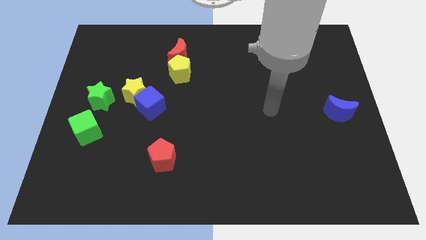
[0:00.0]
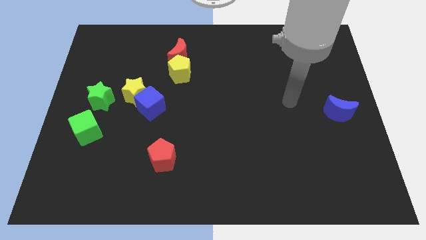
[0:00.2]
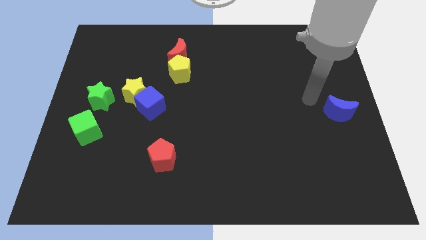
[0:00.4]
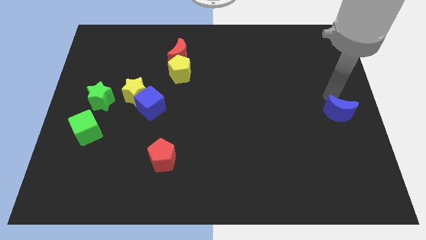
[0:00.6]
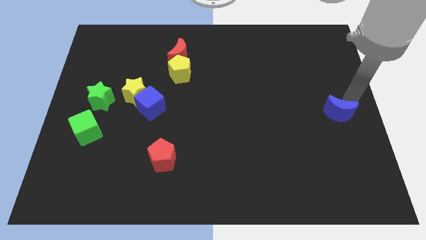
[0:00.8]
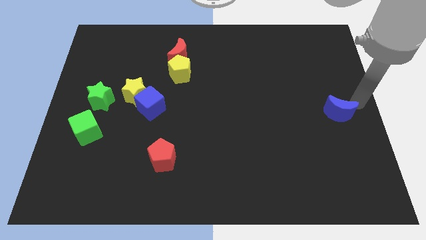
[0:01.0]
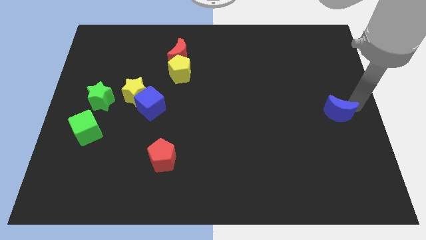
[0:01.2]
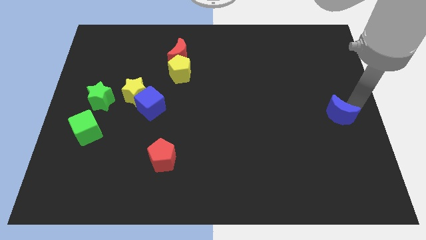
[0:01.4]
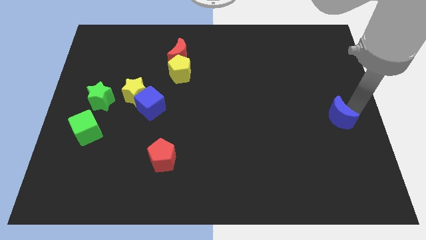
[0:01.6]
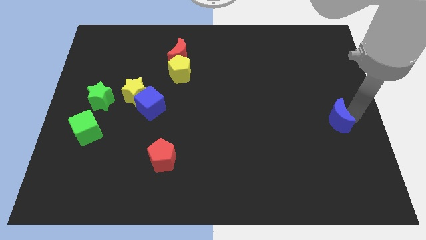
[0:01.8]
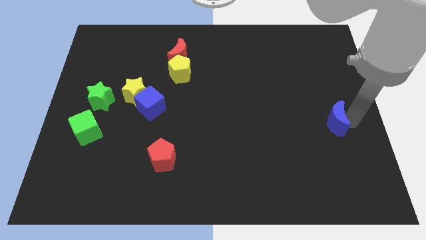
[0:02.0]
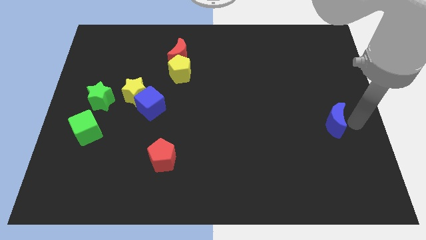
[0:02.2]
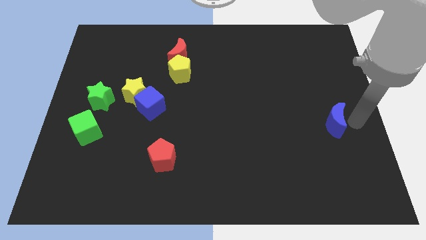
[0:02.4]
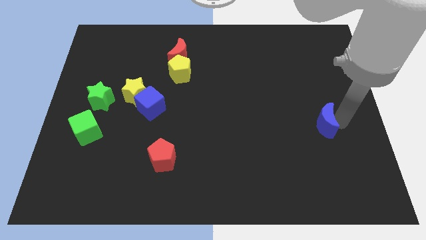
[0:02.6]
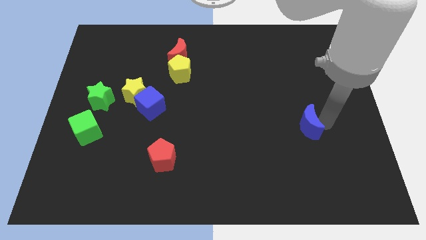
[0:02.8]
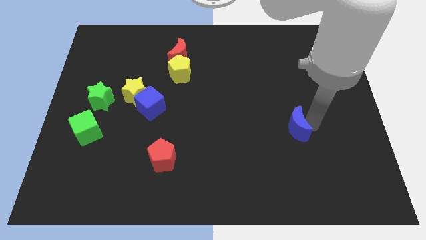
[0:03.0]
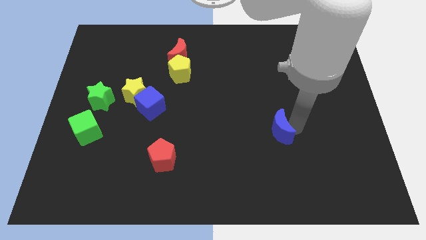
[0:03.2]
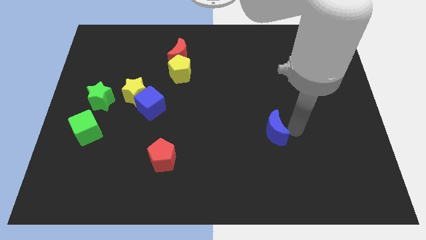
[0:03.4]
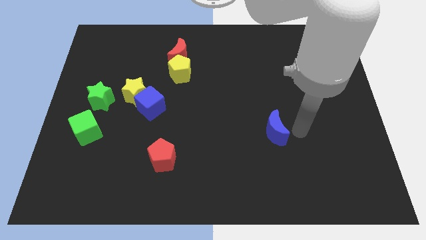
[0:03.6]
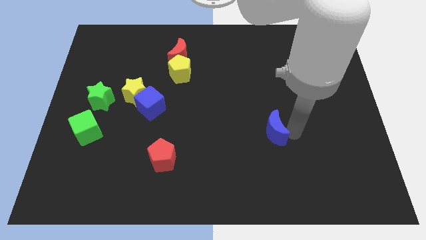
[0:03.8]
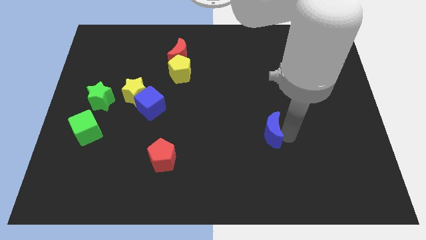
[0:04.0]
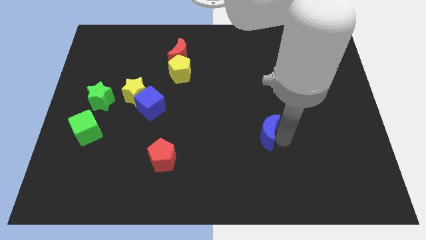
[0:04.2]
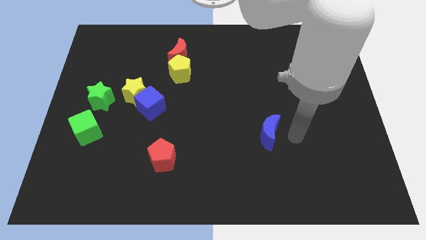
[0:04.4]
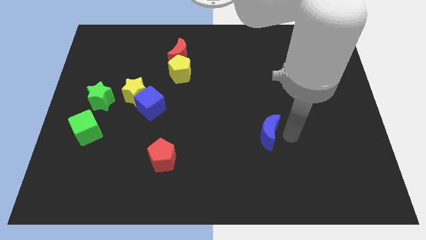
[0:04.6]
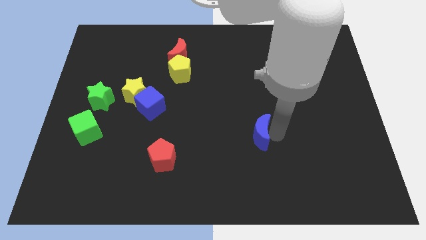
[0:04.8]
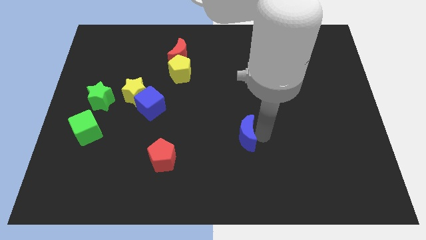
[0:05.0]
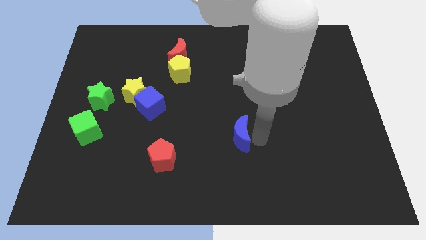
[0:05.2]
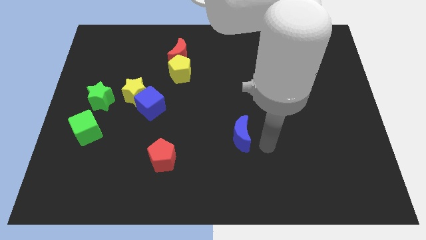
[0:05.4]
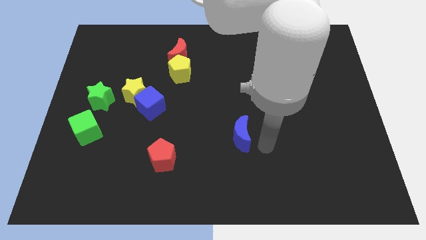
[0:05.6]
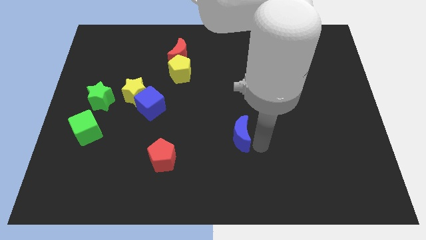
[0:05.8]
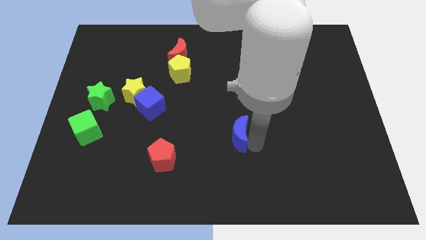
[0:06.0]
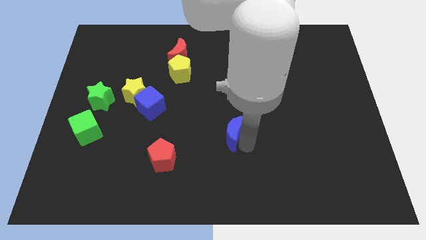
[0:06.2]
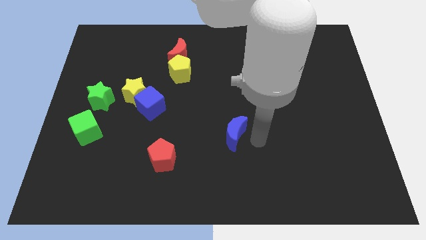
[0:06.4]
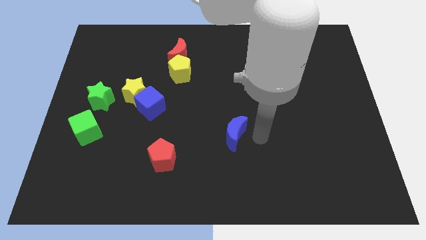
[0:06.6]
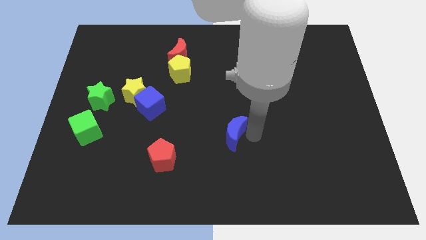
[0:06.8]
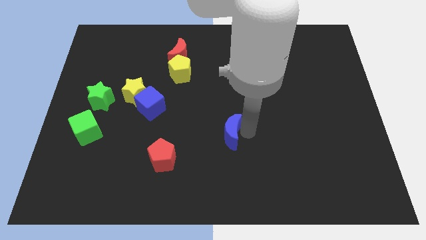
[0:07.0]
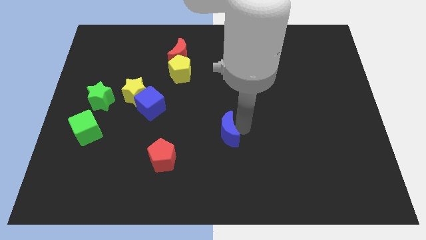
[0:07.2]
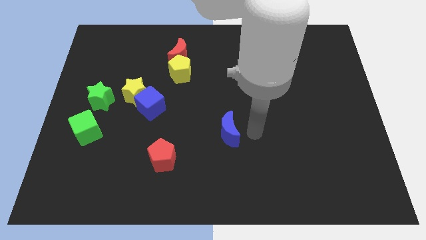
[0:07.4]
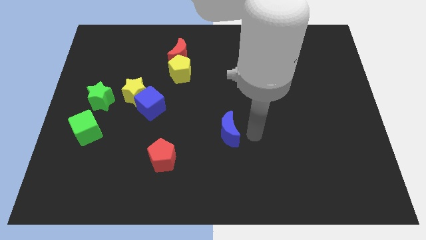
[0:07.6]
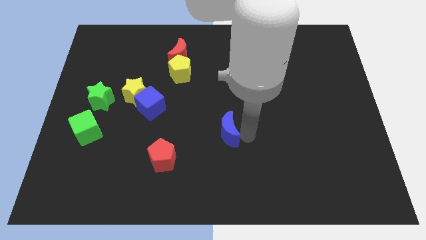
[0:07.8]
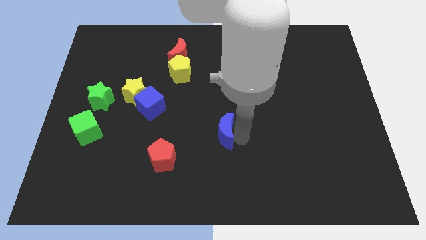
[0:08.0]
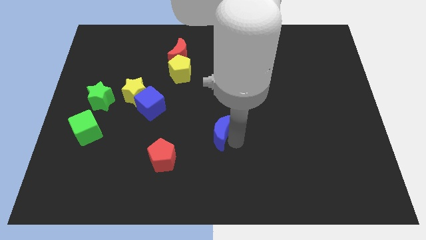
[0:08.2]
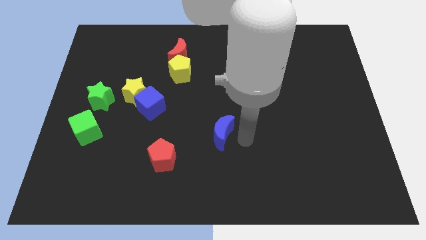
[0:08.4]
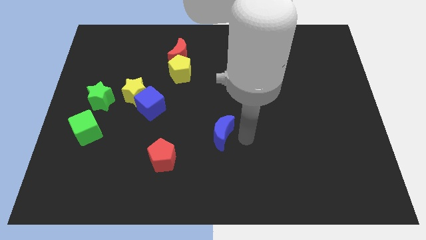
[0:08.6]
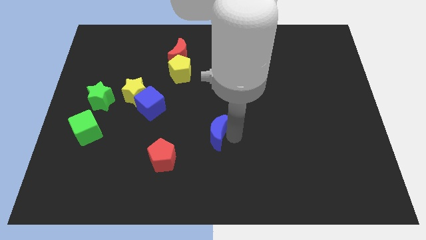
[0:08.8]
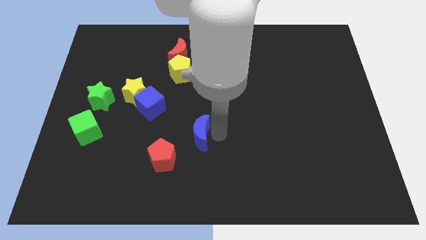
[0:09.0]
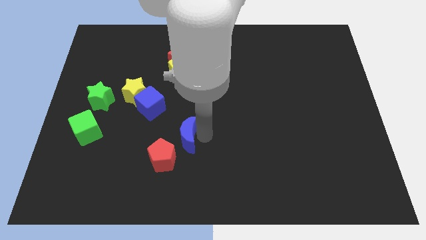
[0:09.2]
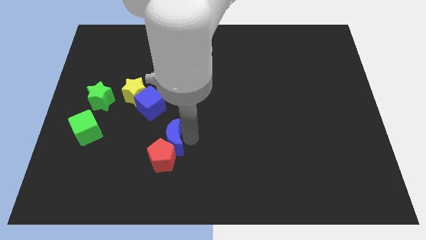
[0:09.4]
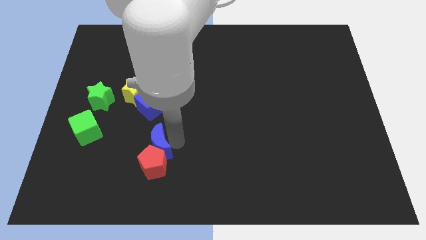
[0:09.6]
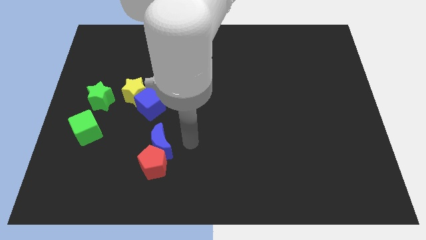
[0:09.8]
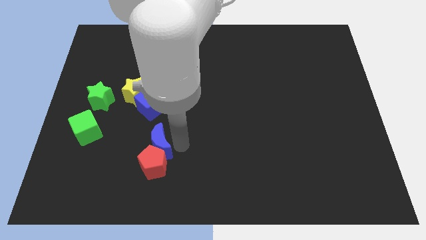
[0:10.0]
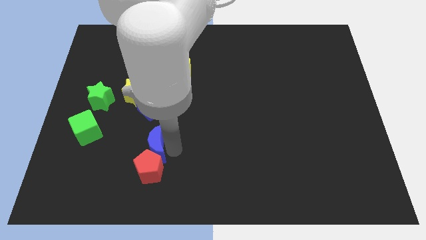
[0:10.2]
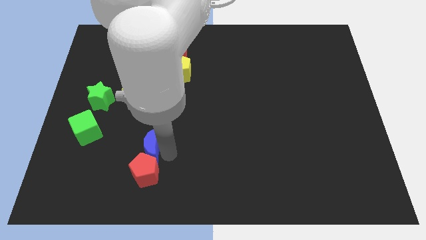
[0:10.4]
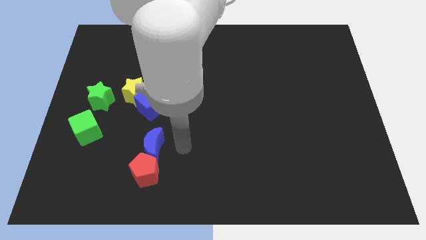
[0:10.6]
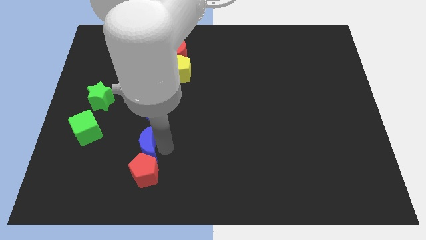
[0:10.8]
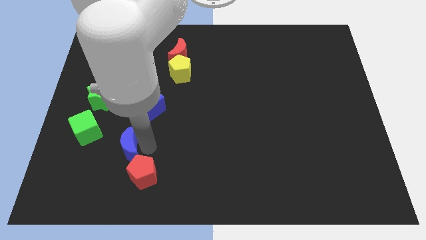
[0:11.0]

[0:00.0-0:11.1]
slide the blue moon to the bottom right of the green cube

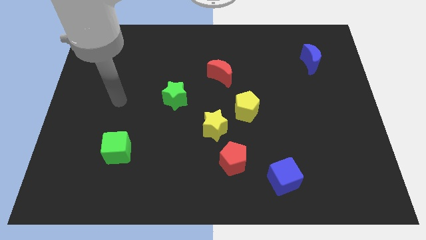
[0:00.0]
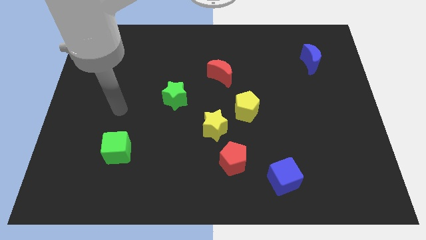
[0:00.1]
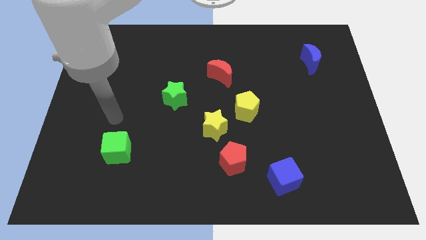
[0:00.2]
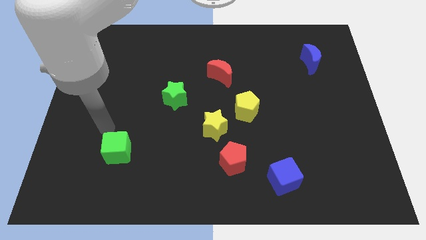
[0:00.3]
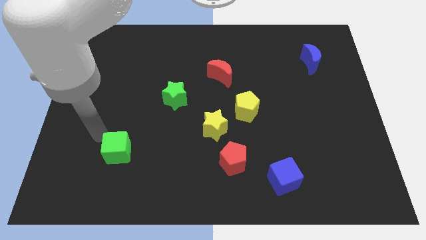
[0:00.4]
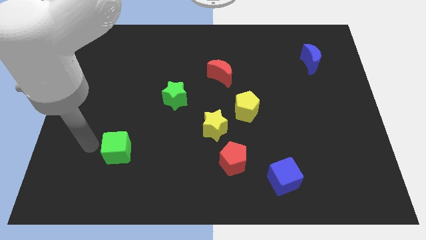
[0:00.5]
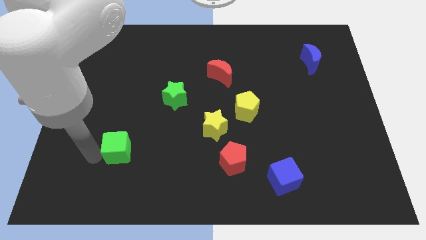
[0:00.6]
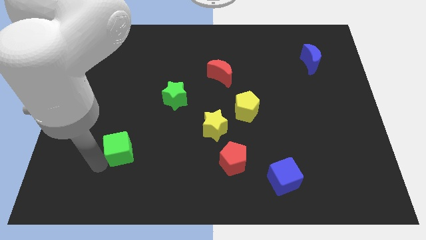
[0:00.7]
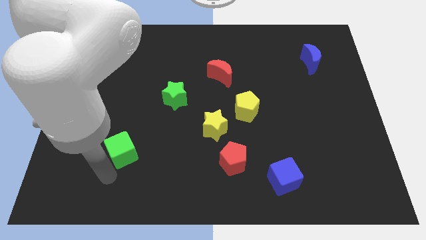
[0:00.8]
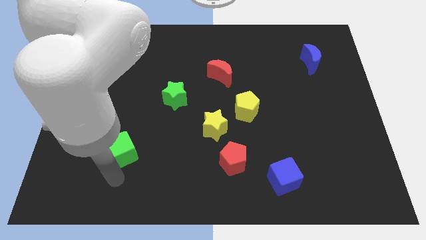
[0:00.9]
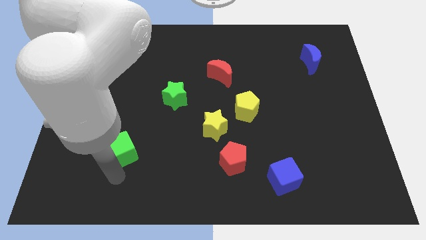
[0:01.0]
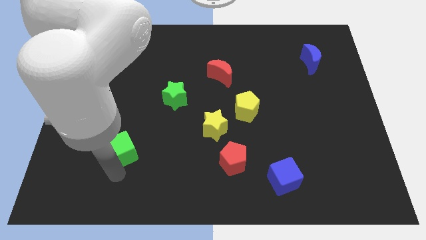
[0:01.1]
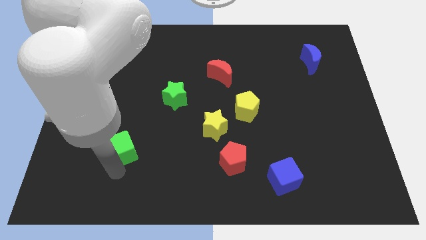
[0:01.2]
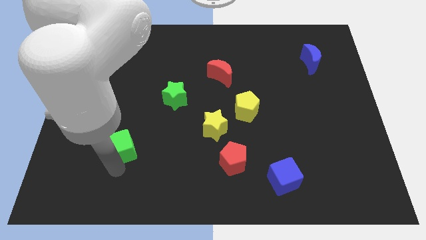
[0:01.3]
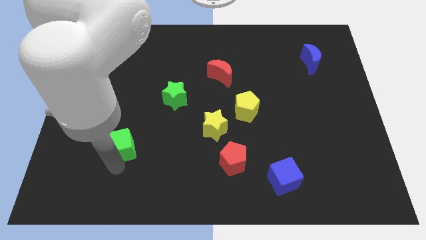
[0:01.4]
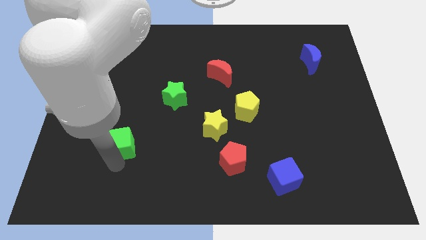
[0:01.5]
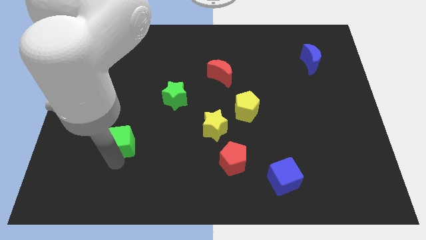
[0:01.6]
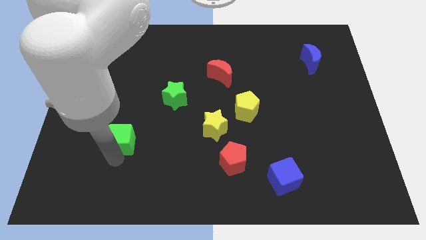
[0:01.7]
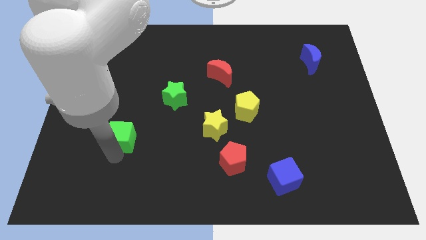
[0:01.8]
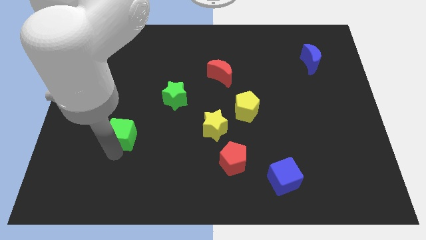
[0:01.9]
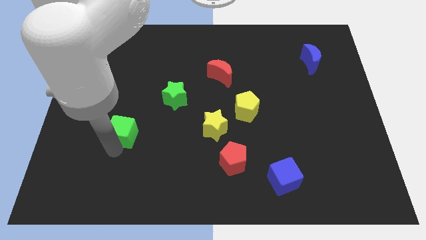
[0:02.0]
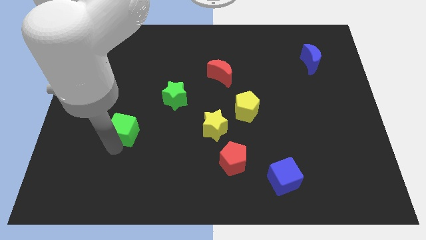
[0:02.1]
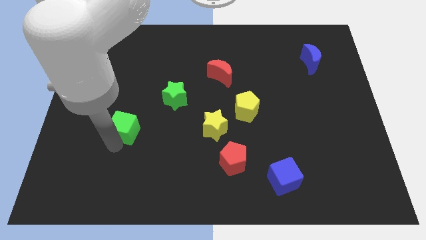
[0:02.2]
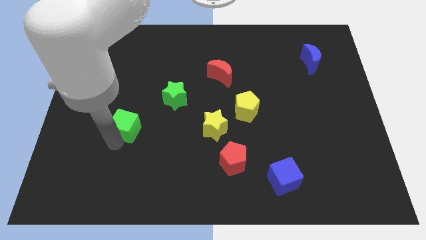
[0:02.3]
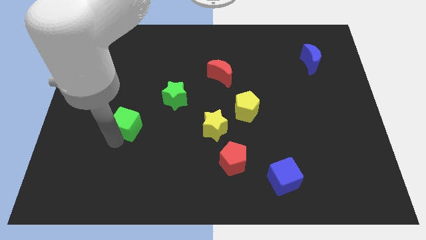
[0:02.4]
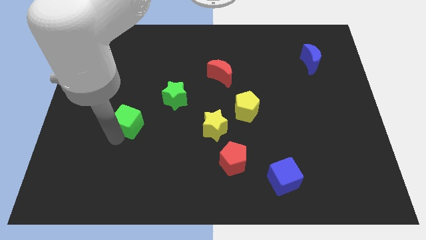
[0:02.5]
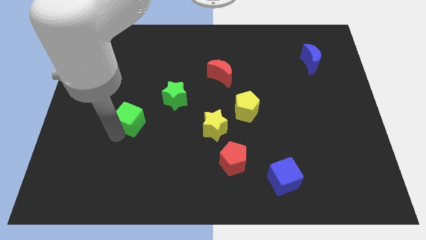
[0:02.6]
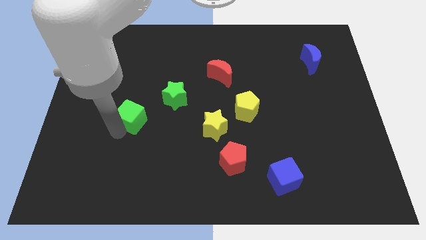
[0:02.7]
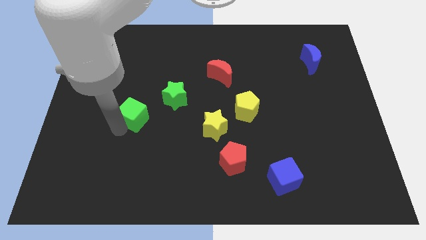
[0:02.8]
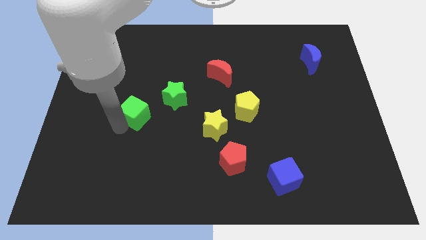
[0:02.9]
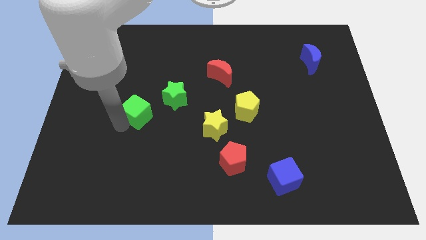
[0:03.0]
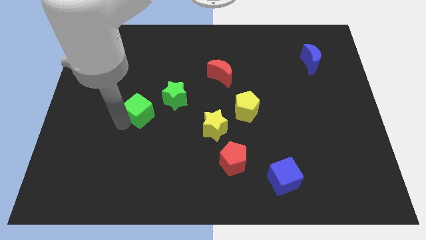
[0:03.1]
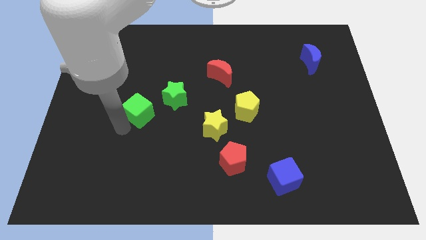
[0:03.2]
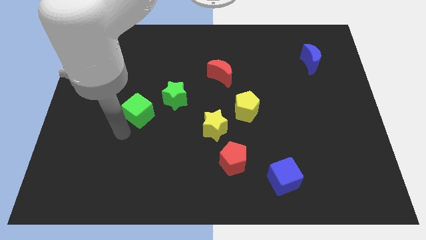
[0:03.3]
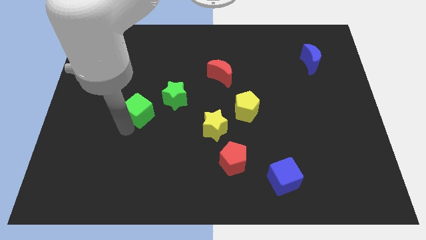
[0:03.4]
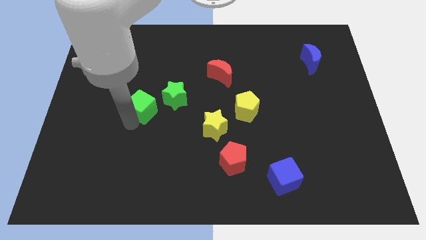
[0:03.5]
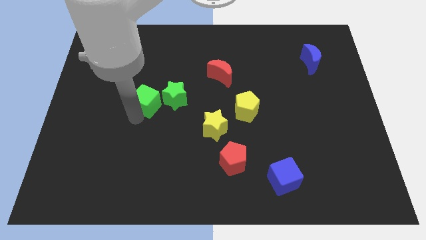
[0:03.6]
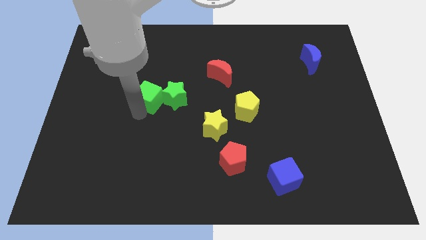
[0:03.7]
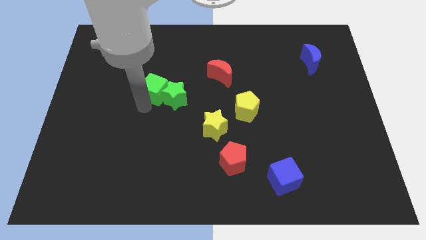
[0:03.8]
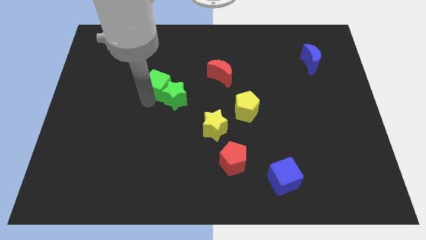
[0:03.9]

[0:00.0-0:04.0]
put the green cube above the green star
